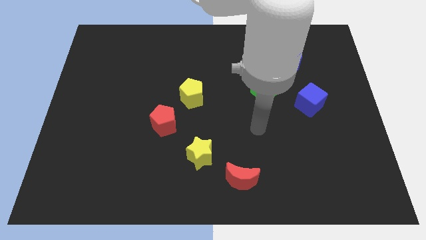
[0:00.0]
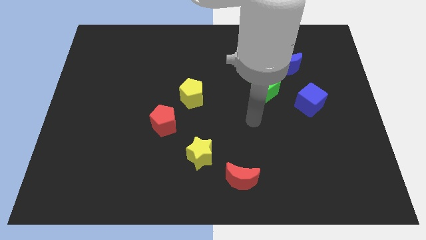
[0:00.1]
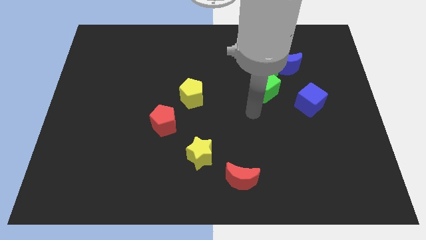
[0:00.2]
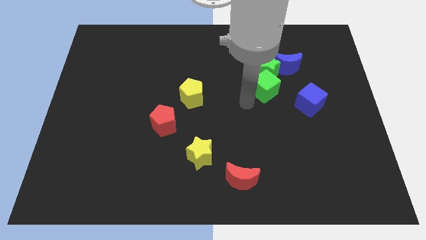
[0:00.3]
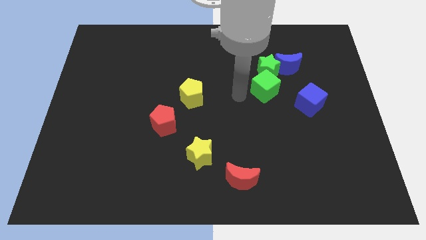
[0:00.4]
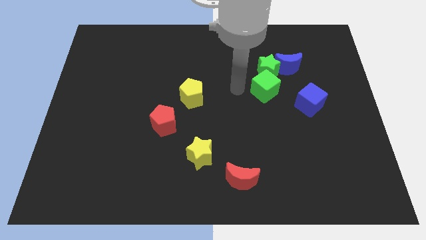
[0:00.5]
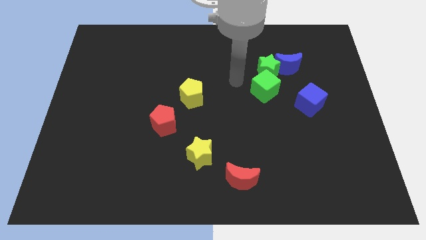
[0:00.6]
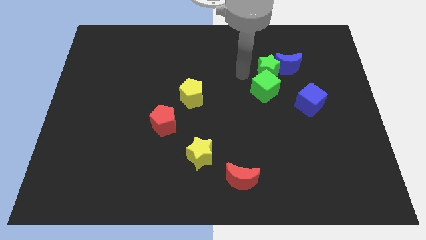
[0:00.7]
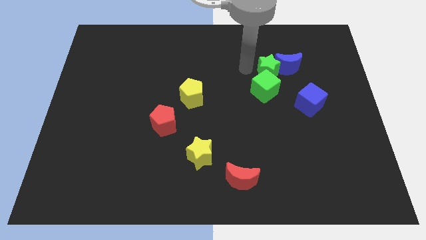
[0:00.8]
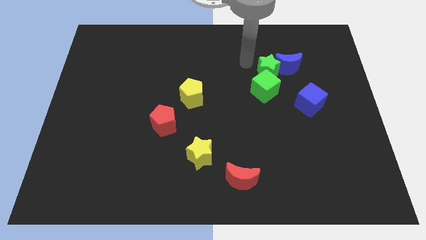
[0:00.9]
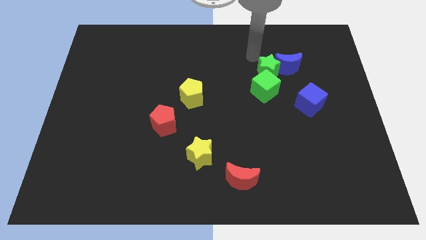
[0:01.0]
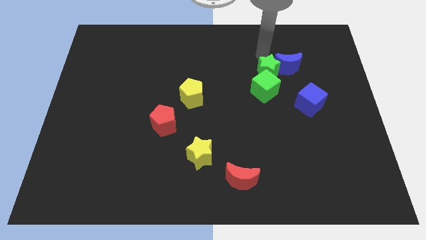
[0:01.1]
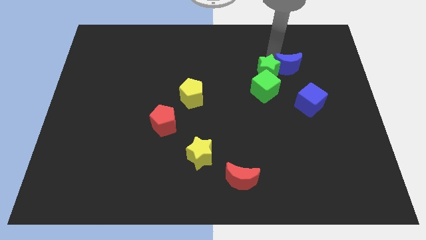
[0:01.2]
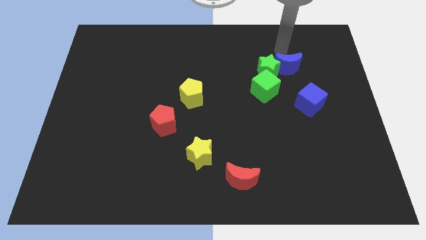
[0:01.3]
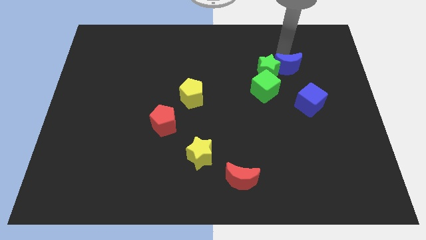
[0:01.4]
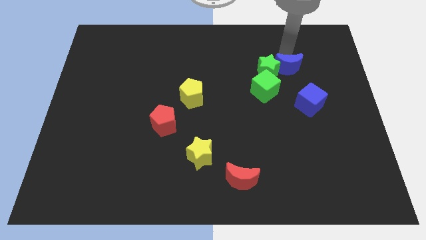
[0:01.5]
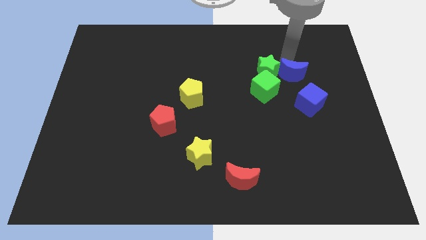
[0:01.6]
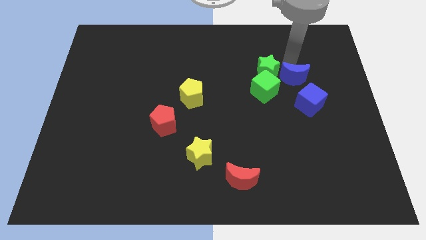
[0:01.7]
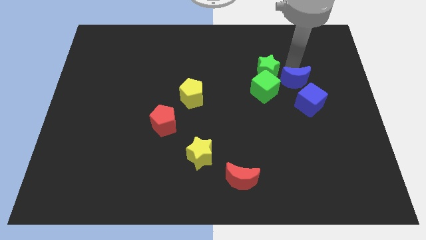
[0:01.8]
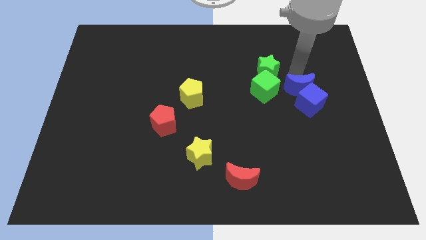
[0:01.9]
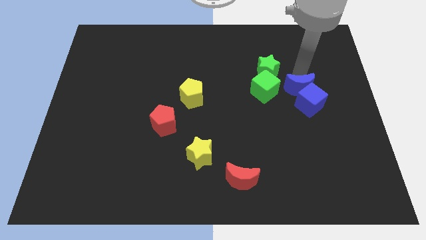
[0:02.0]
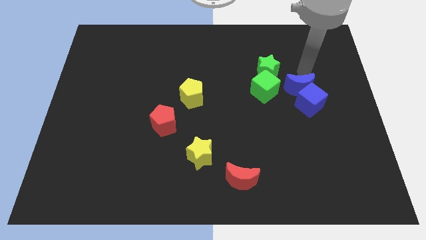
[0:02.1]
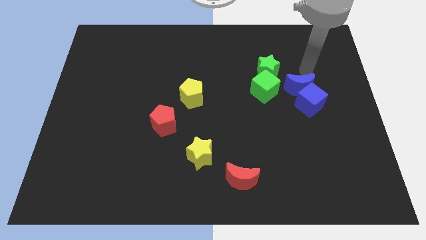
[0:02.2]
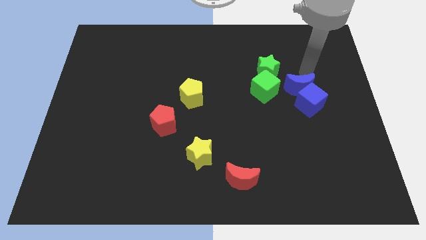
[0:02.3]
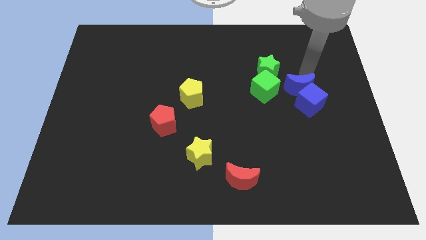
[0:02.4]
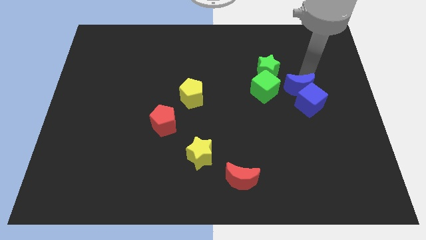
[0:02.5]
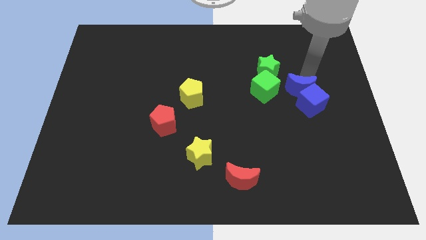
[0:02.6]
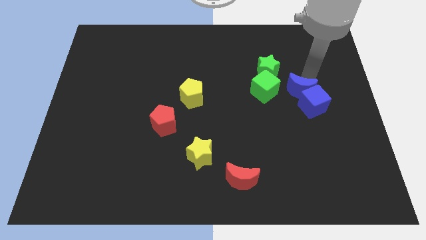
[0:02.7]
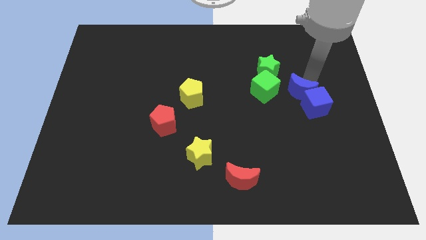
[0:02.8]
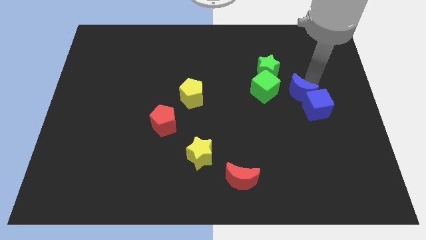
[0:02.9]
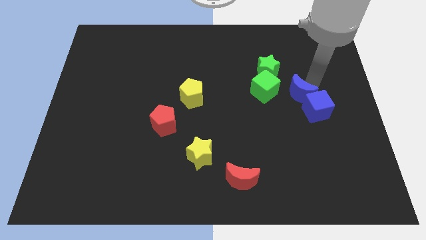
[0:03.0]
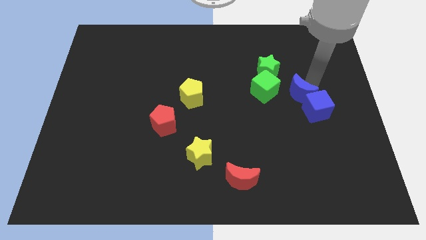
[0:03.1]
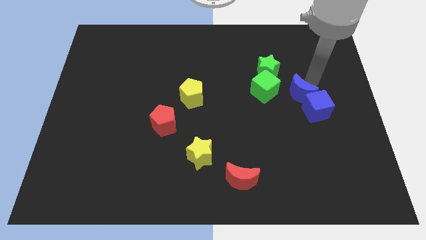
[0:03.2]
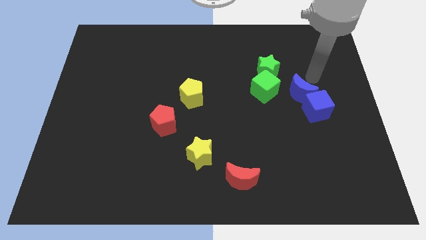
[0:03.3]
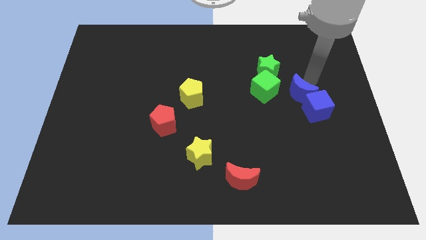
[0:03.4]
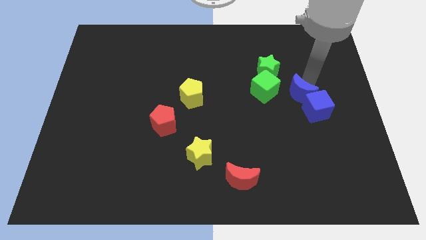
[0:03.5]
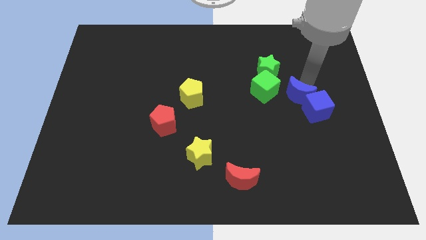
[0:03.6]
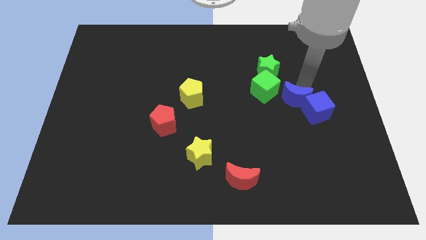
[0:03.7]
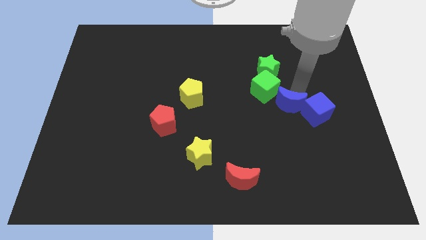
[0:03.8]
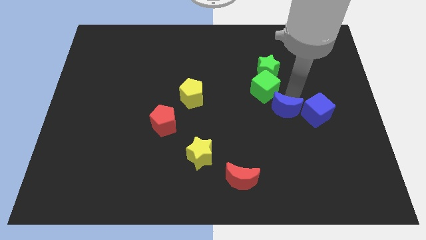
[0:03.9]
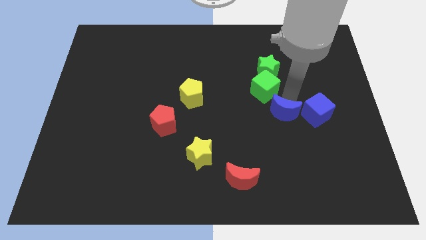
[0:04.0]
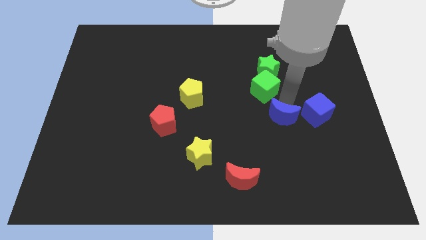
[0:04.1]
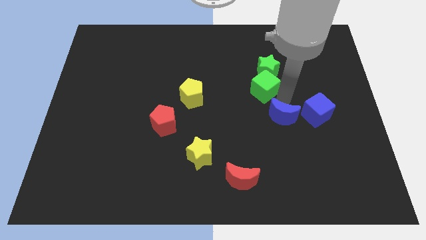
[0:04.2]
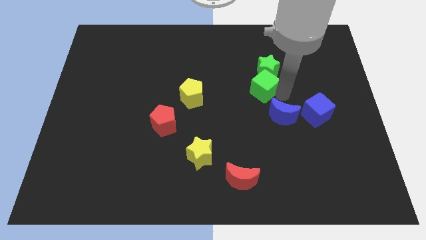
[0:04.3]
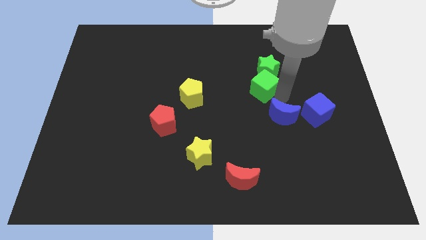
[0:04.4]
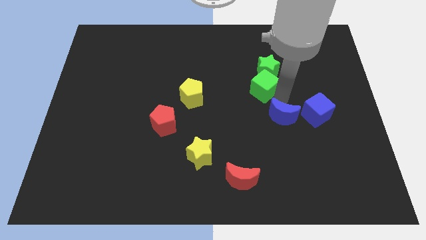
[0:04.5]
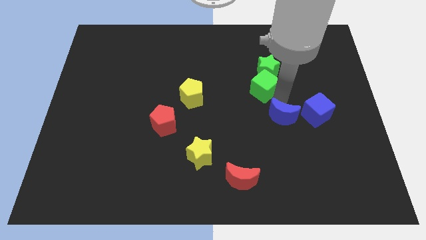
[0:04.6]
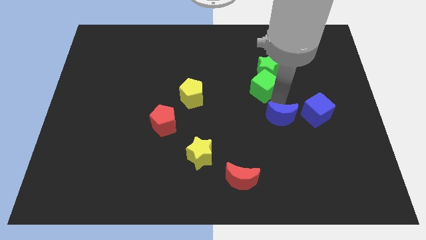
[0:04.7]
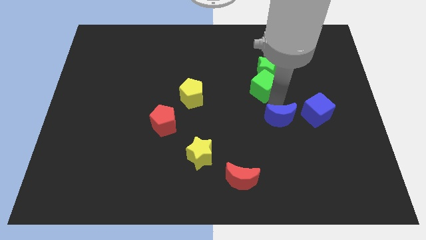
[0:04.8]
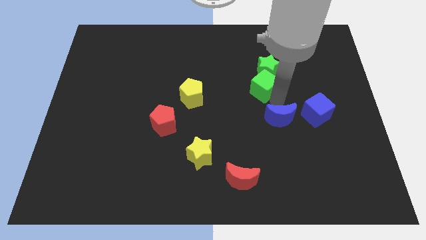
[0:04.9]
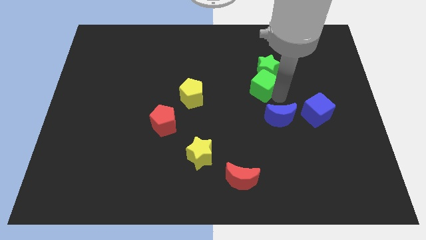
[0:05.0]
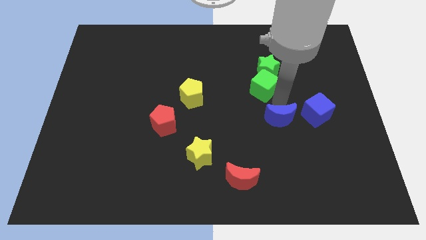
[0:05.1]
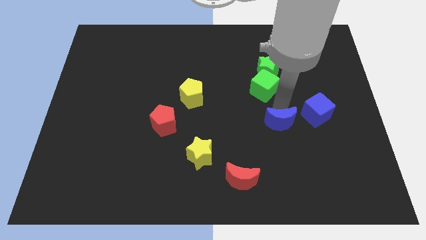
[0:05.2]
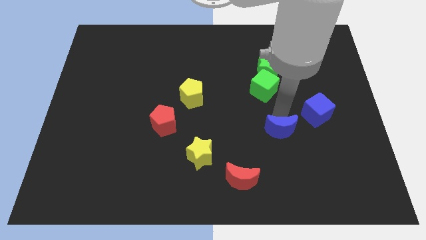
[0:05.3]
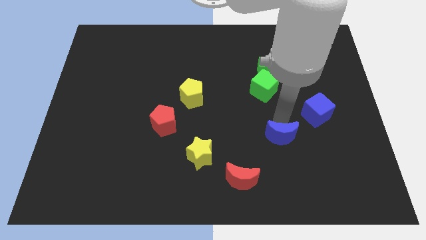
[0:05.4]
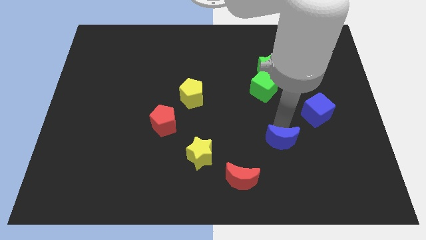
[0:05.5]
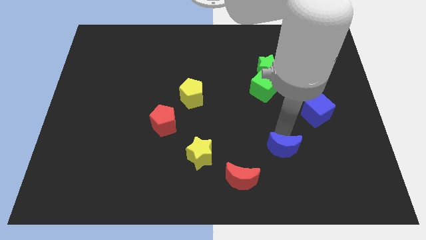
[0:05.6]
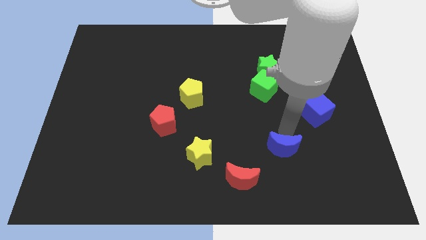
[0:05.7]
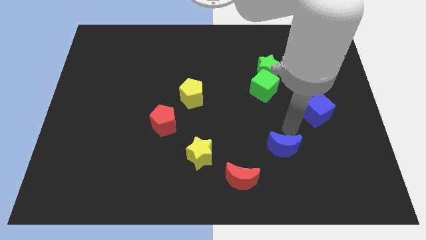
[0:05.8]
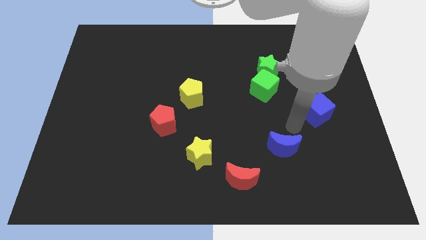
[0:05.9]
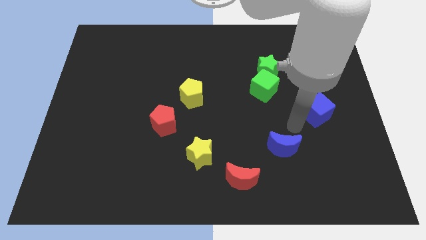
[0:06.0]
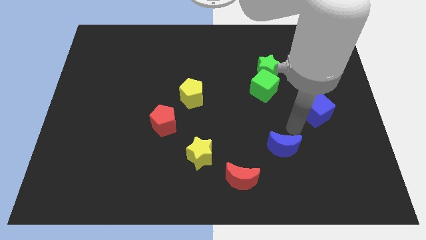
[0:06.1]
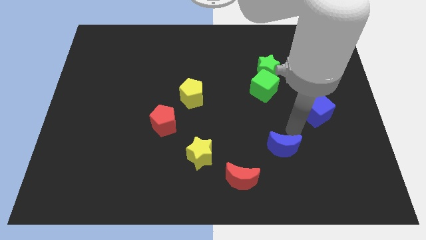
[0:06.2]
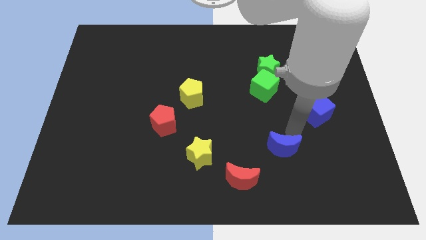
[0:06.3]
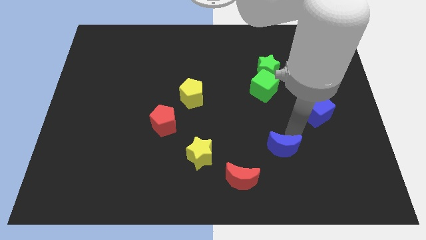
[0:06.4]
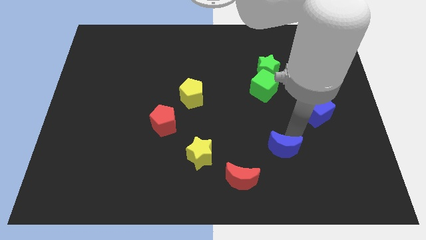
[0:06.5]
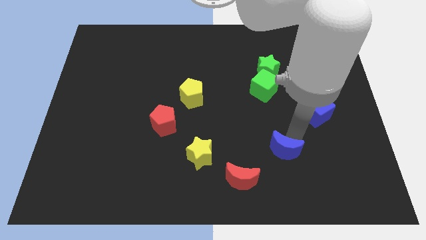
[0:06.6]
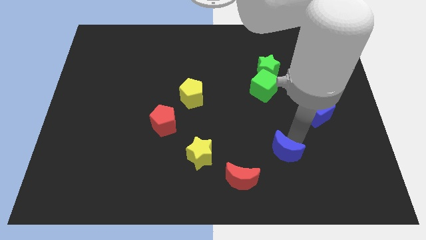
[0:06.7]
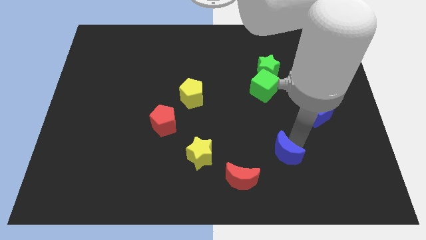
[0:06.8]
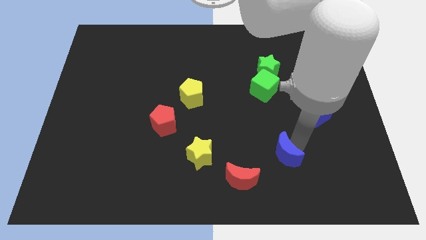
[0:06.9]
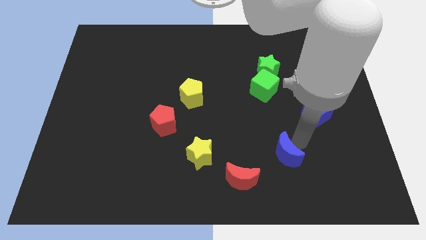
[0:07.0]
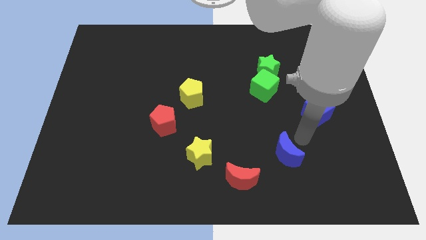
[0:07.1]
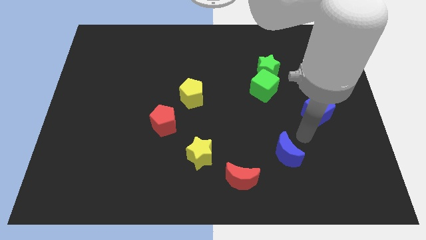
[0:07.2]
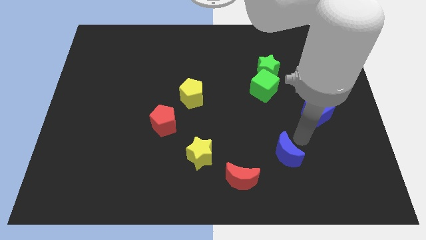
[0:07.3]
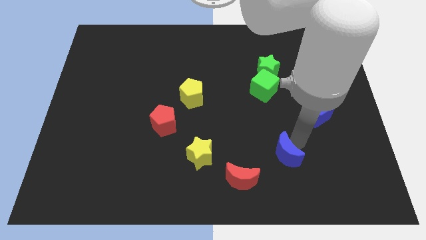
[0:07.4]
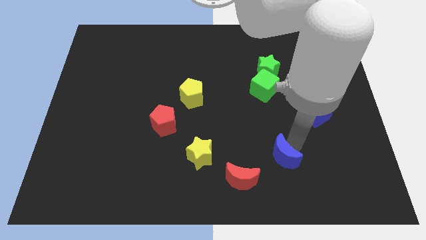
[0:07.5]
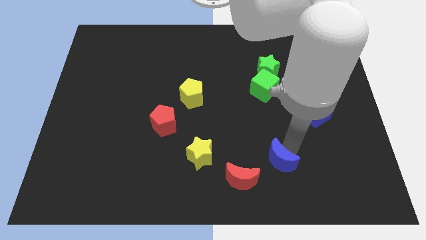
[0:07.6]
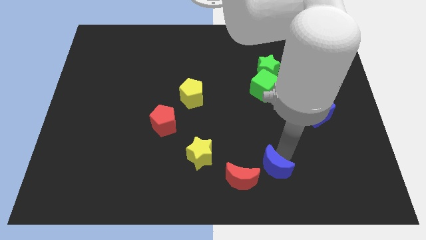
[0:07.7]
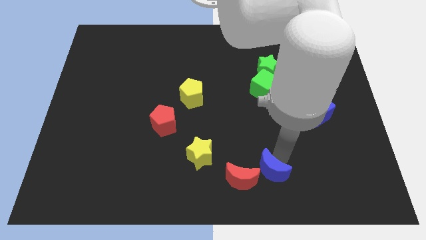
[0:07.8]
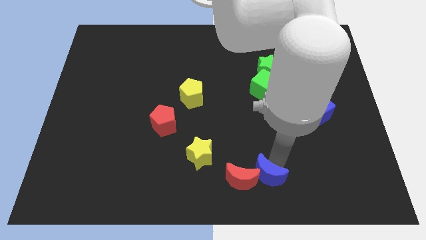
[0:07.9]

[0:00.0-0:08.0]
push the blue moon to the bottom
